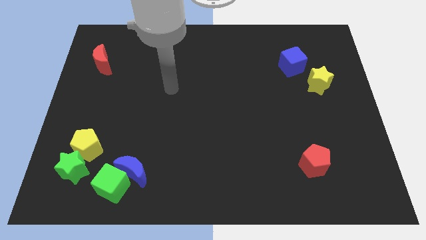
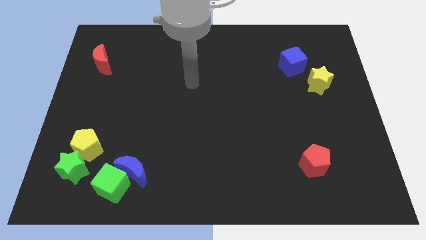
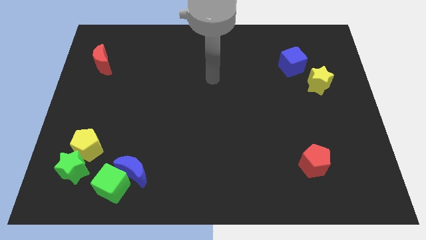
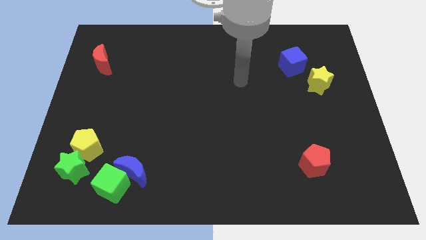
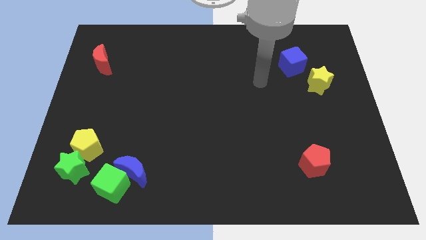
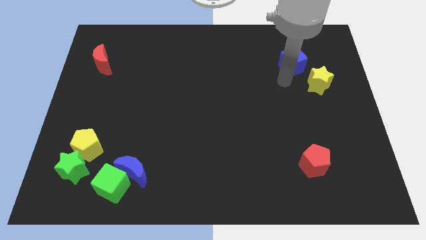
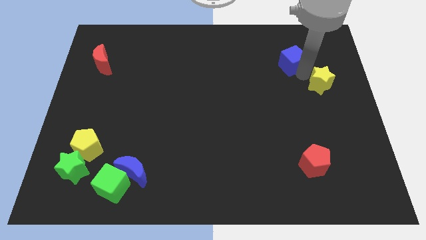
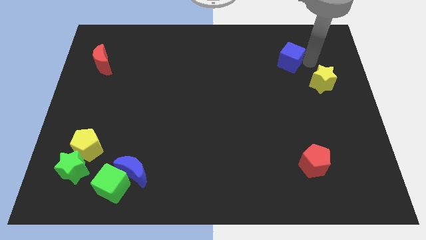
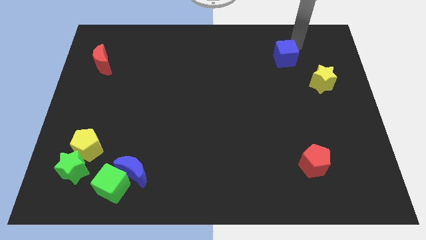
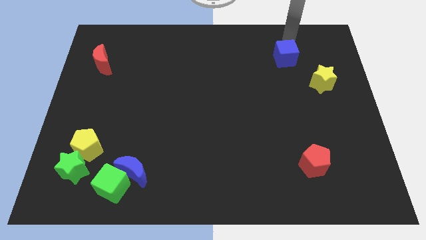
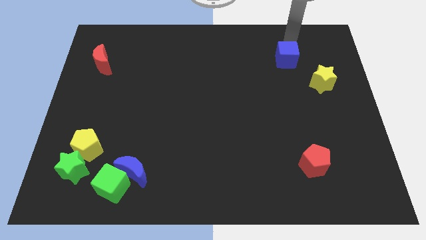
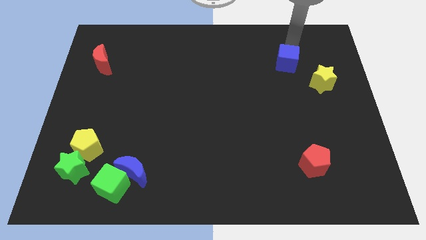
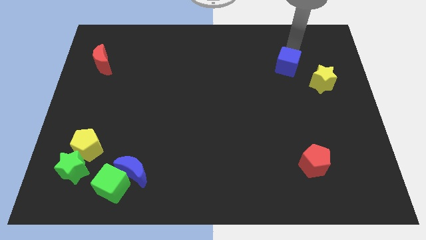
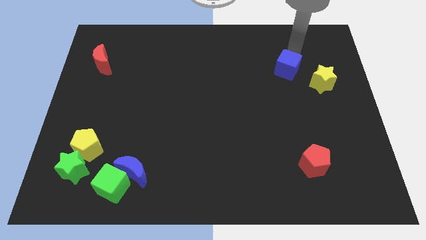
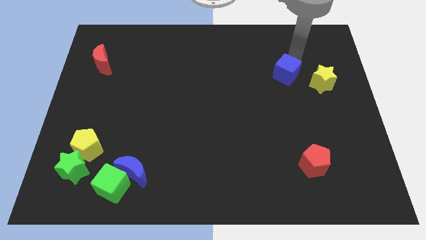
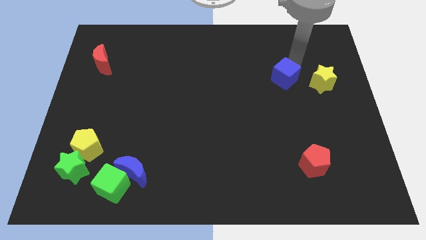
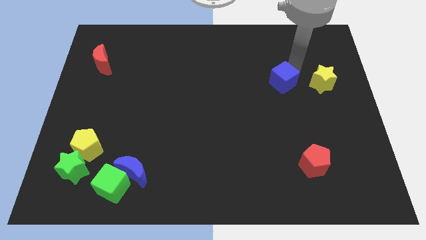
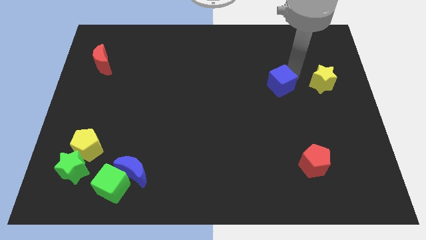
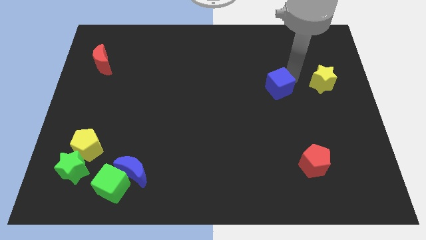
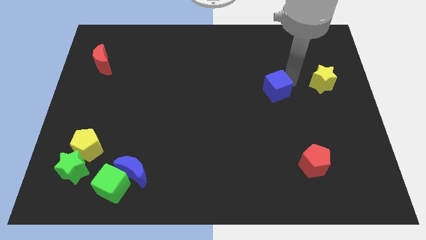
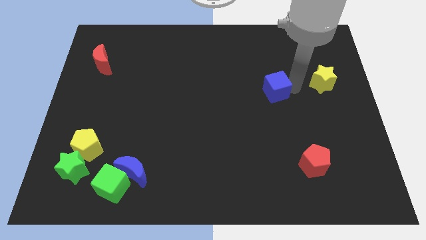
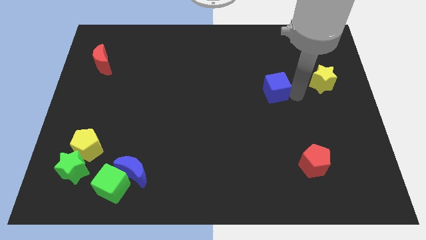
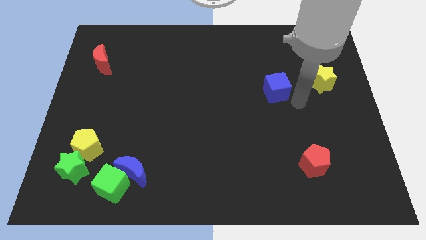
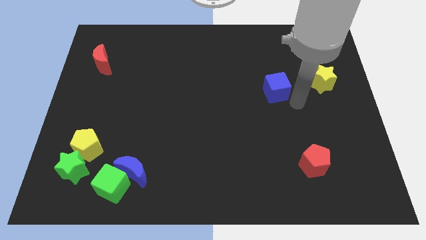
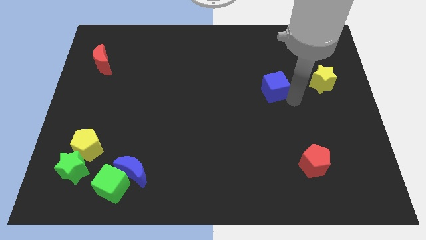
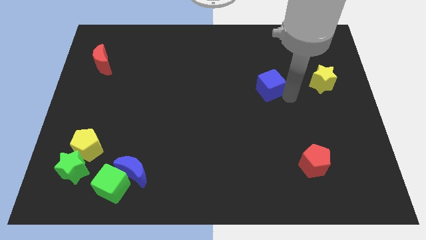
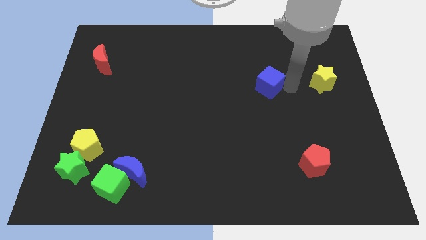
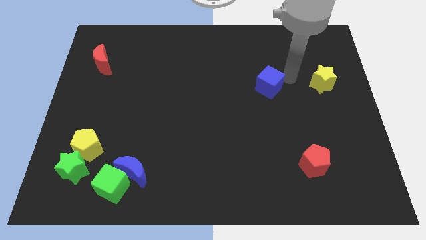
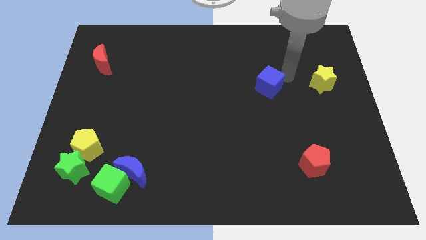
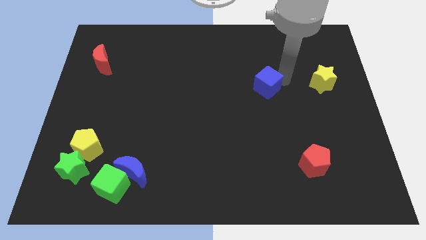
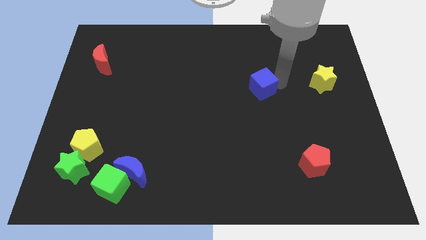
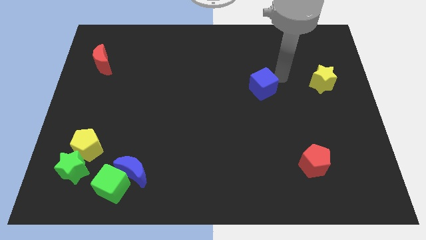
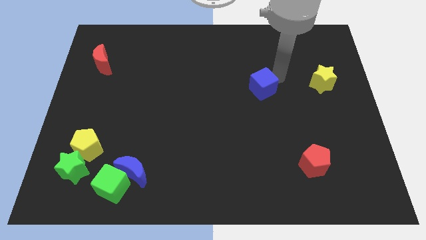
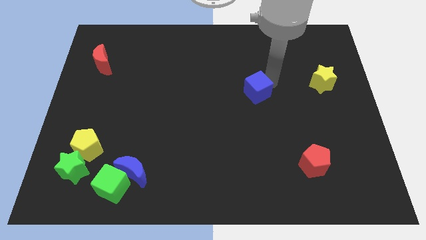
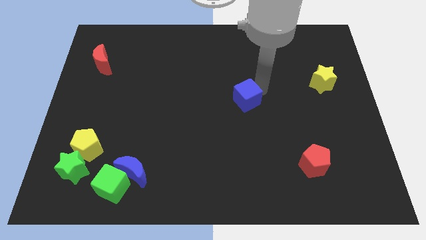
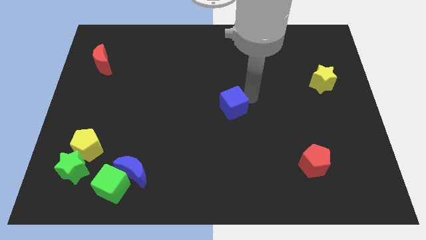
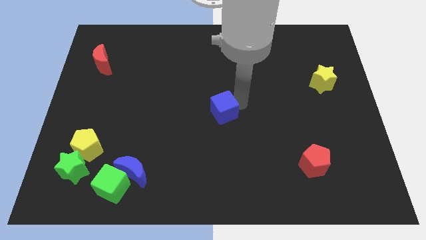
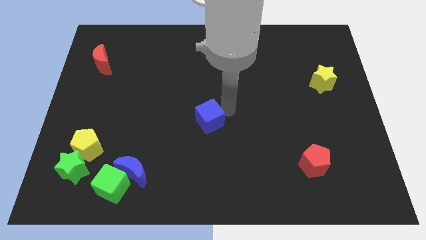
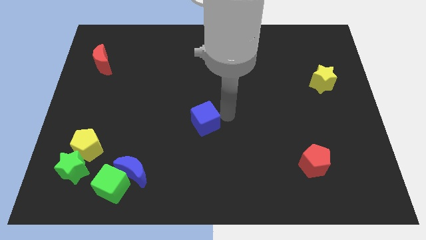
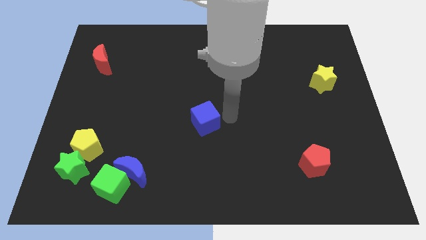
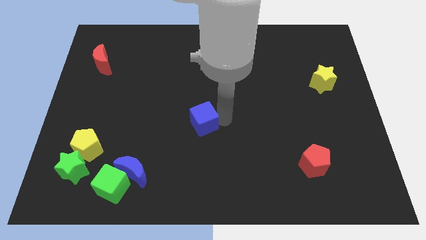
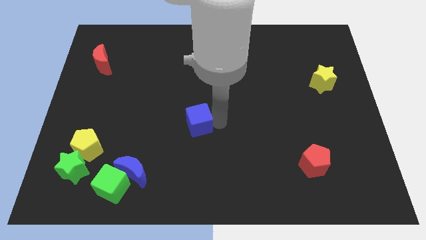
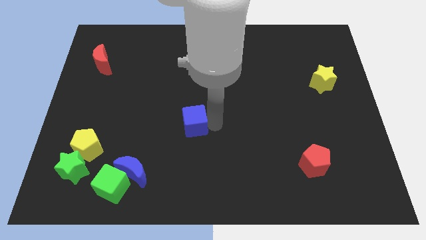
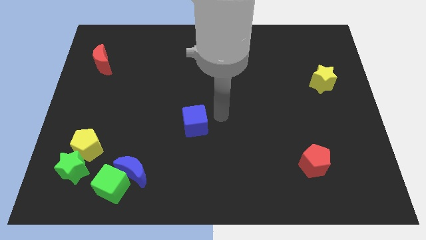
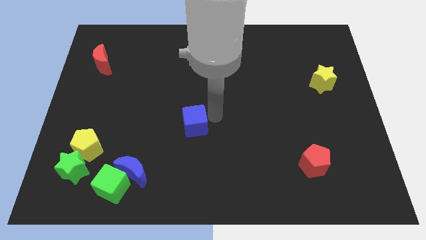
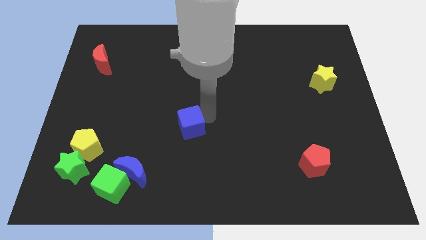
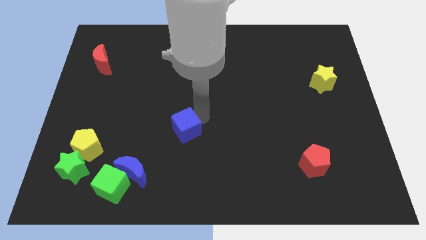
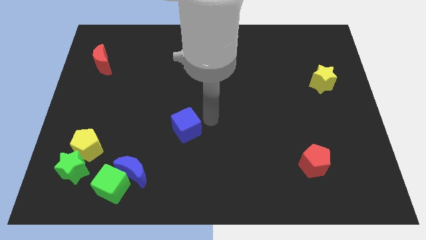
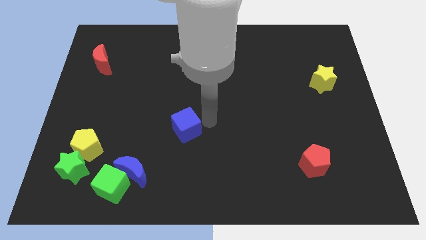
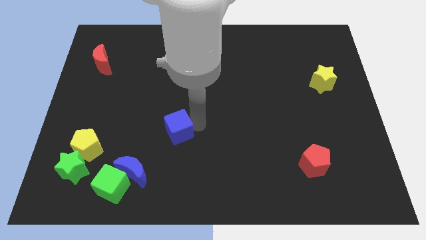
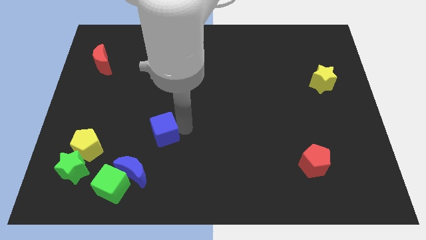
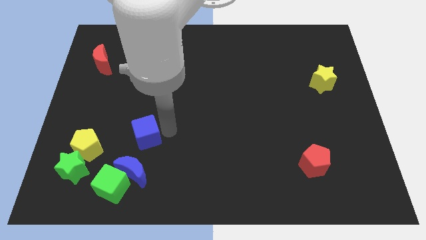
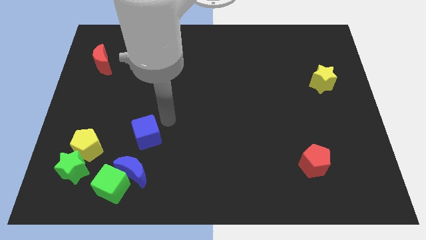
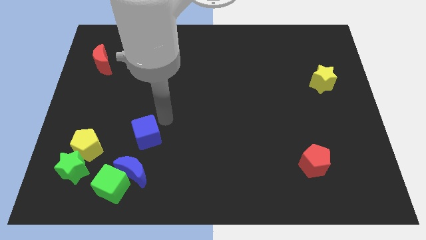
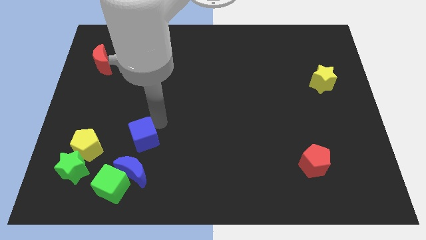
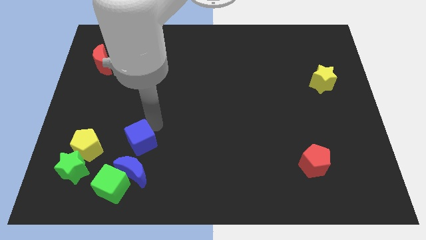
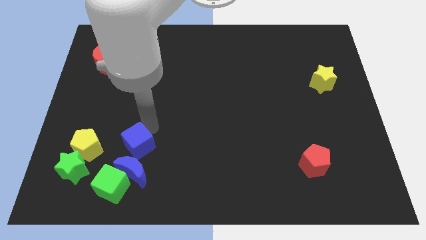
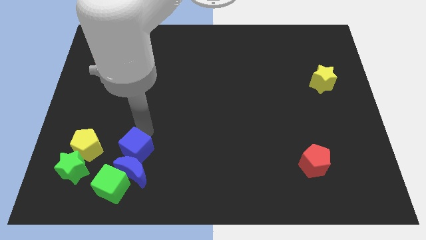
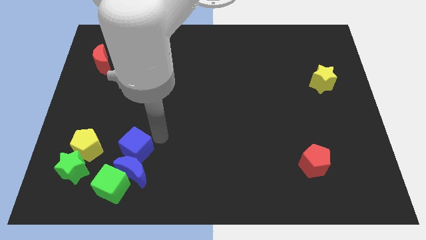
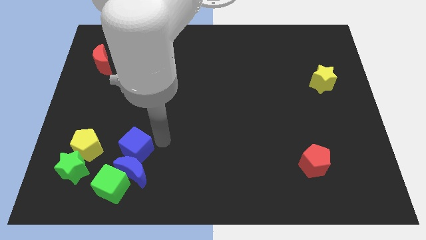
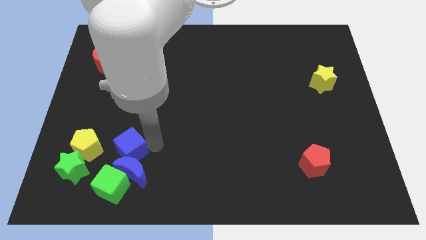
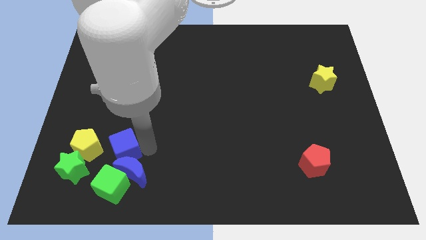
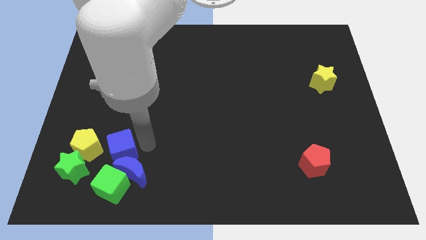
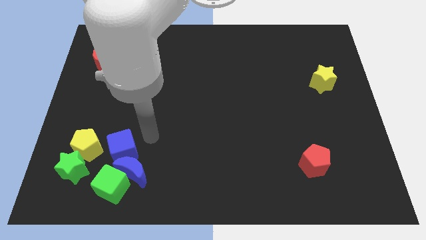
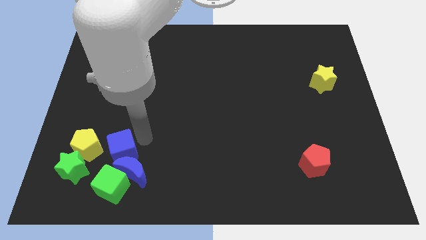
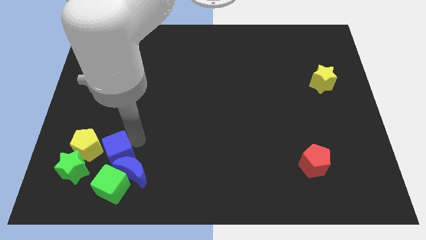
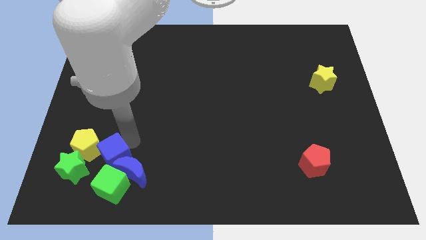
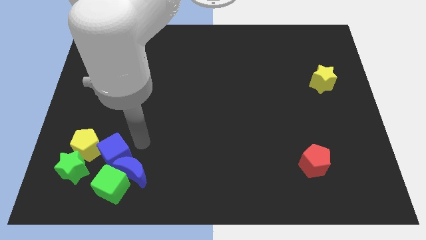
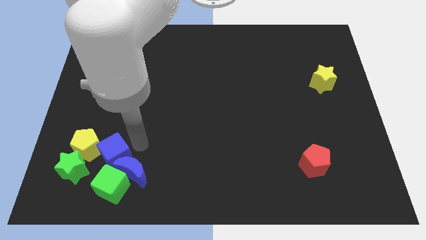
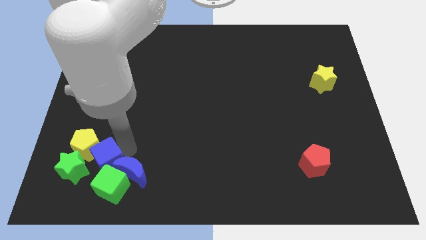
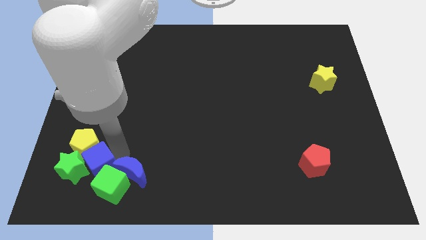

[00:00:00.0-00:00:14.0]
put the blue cube next to the green star
